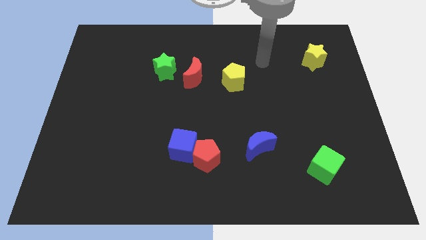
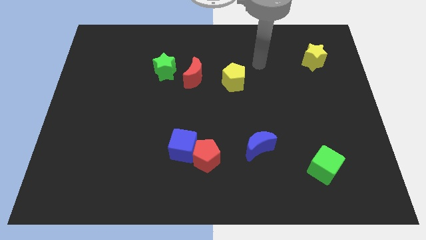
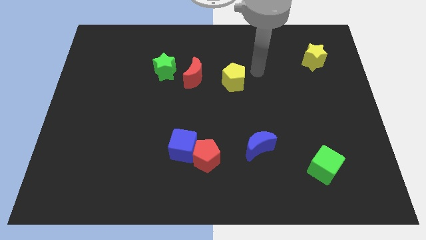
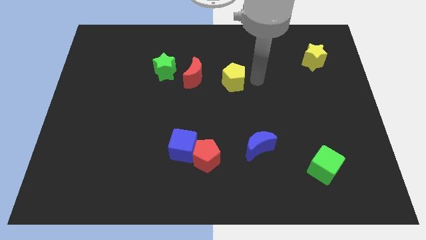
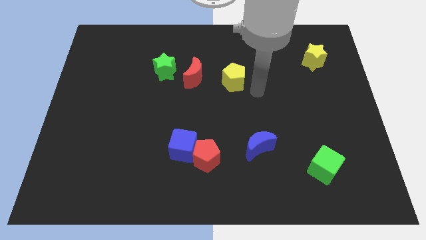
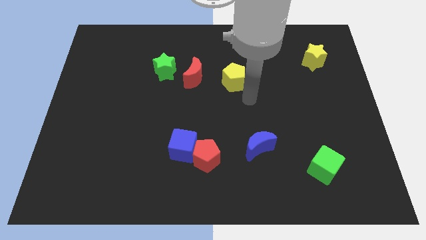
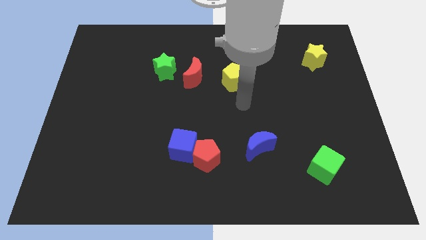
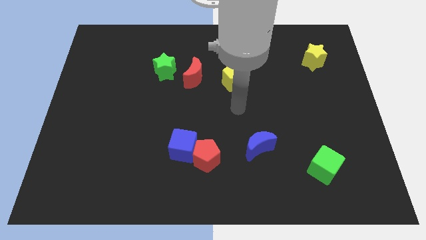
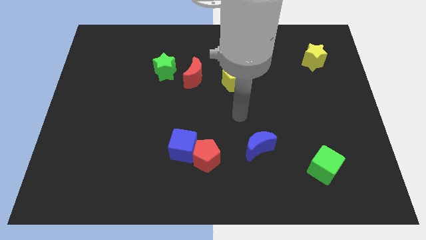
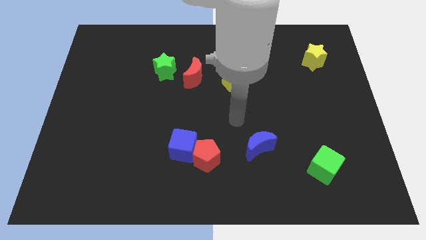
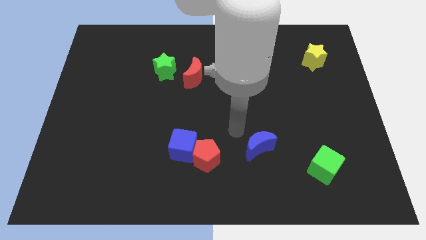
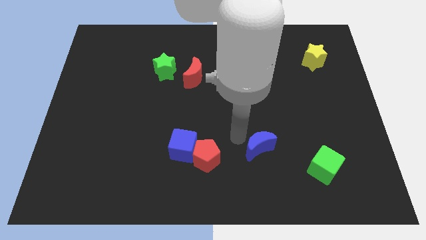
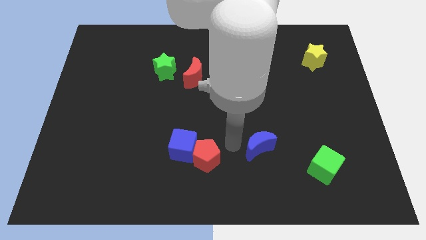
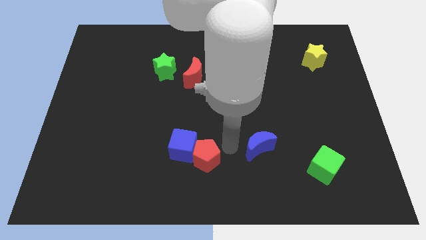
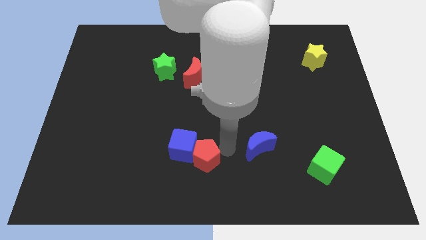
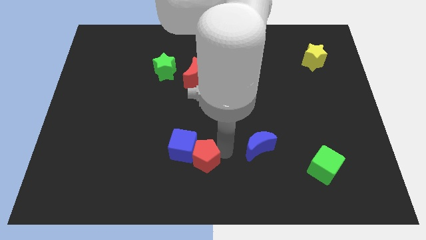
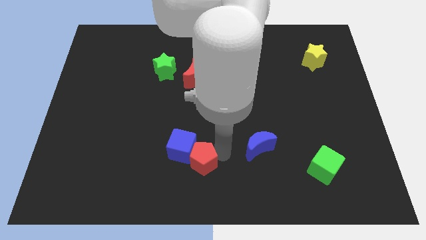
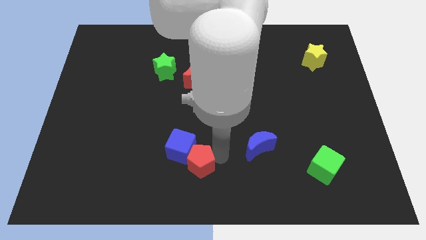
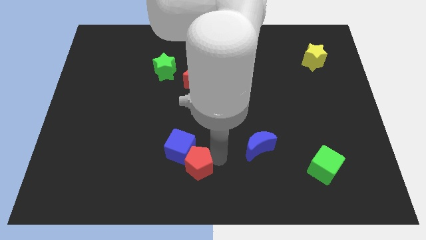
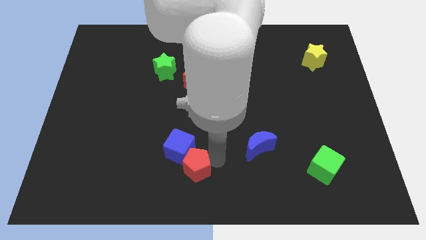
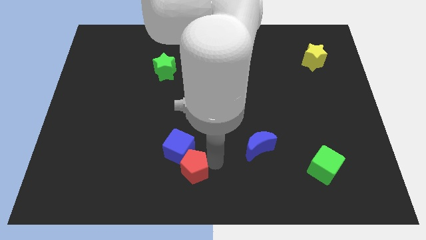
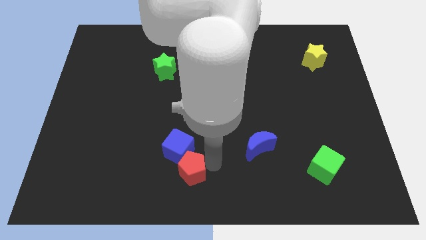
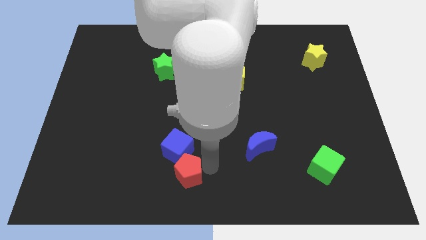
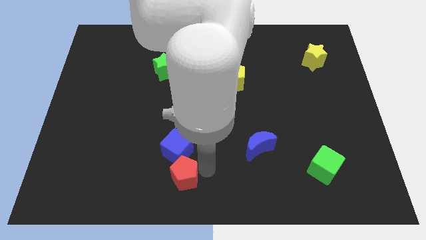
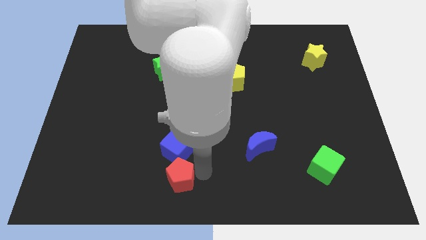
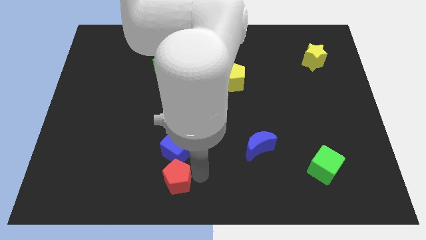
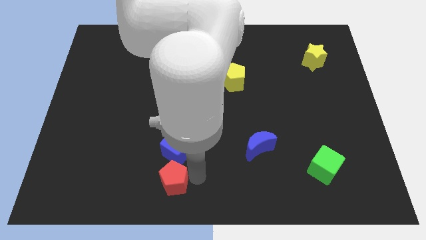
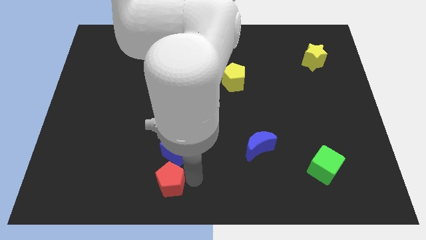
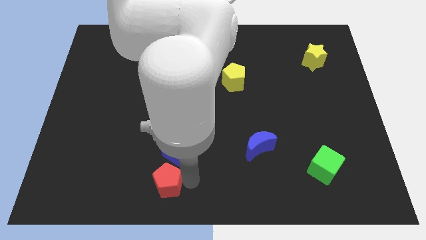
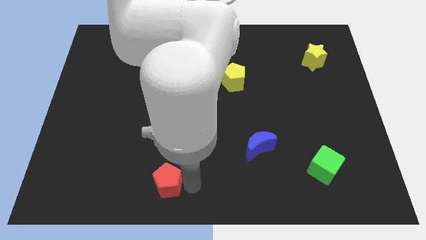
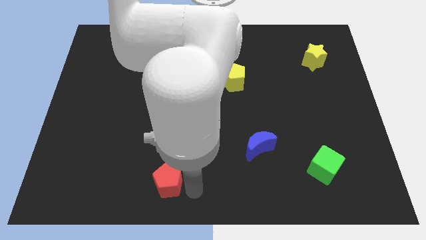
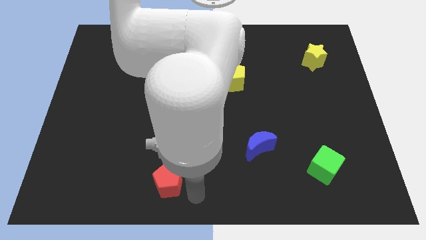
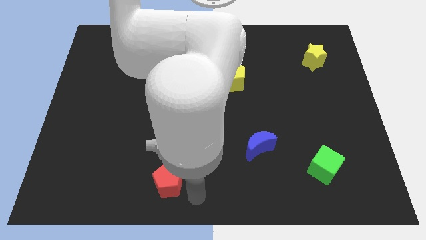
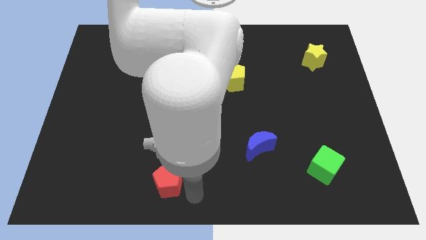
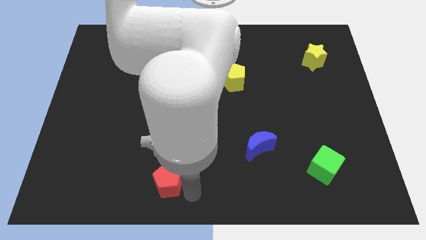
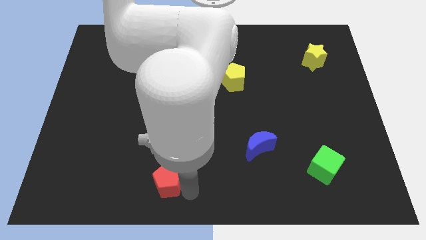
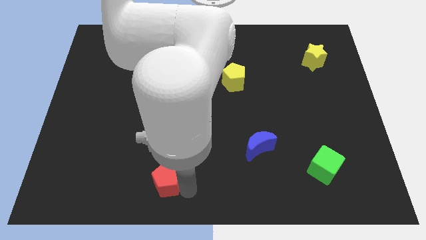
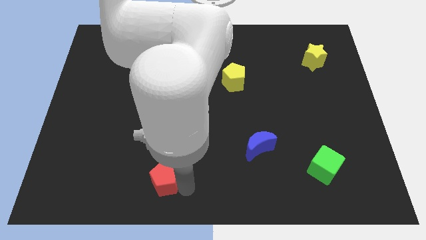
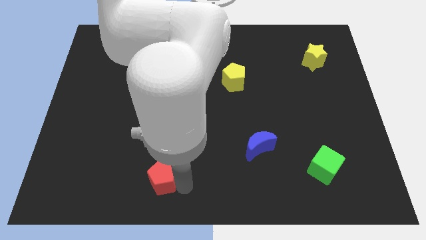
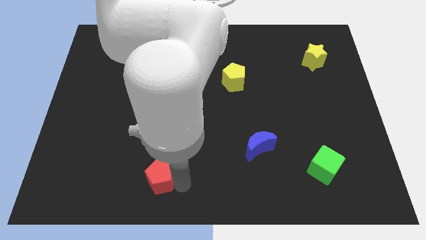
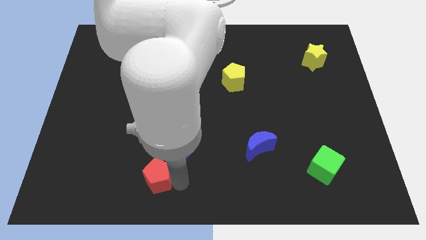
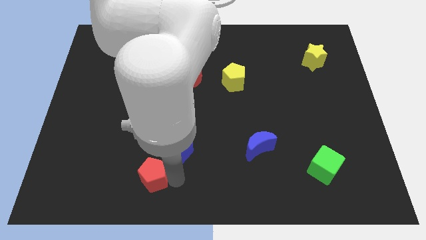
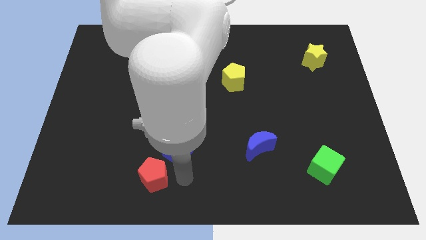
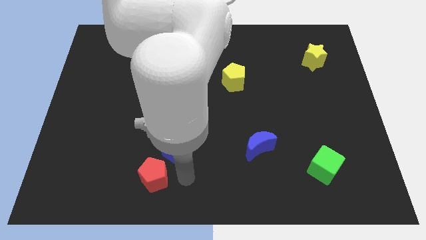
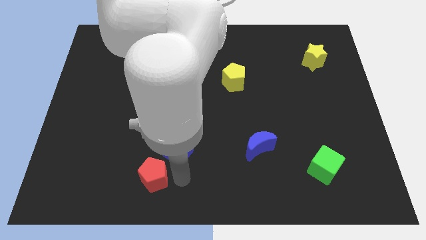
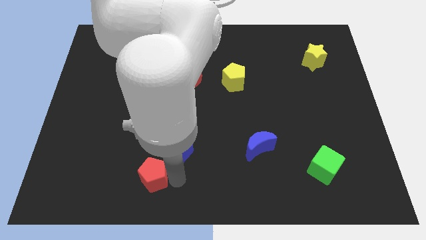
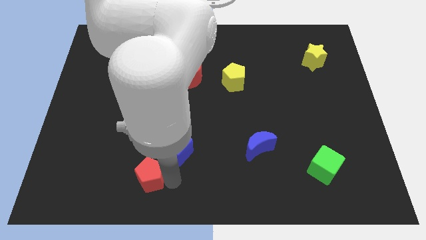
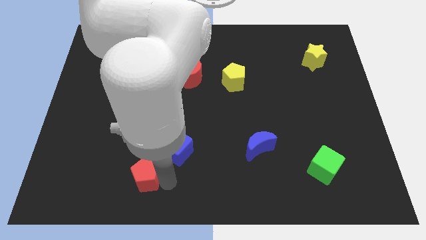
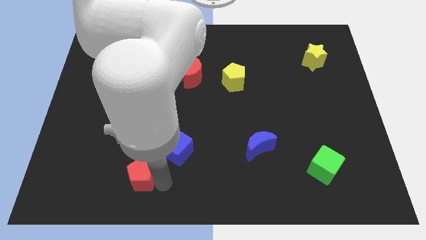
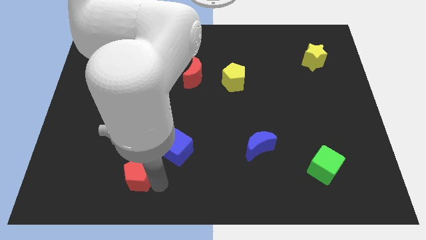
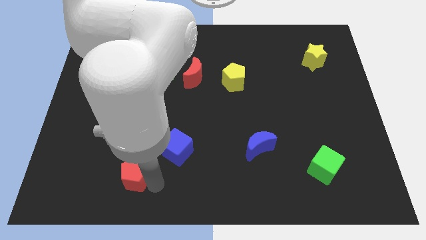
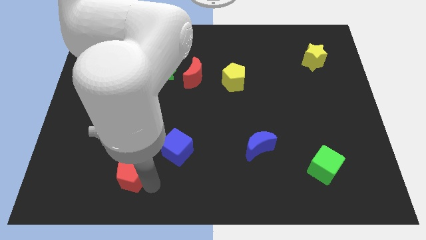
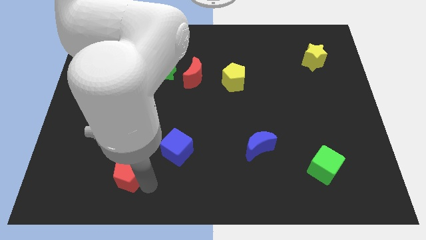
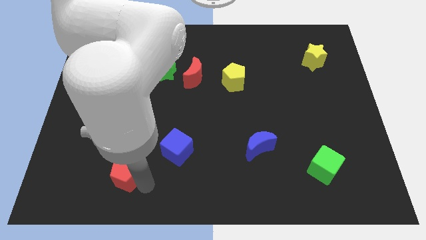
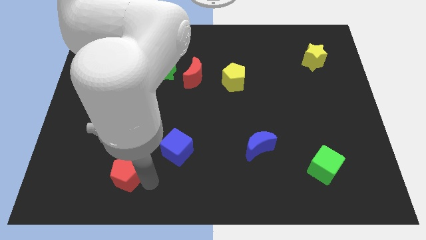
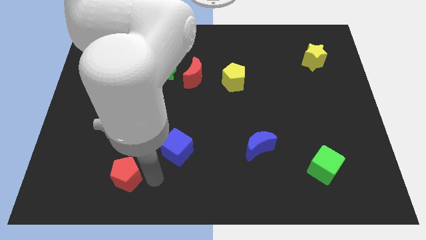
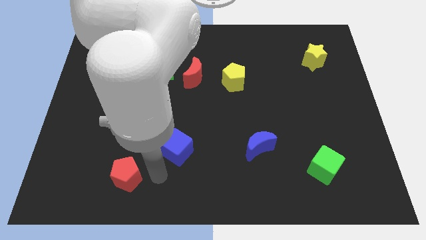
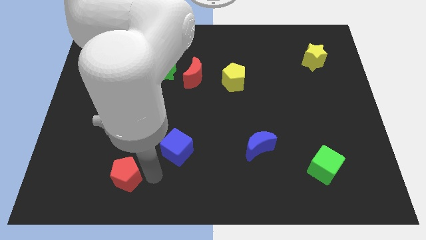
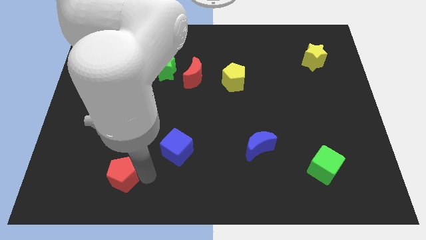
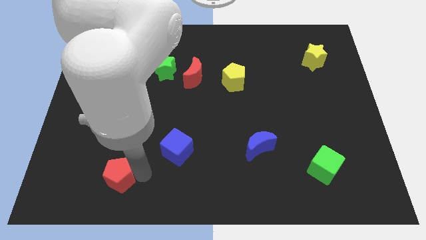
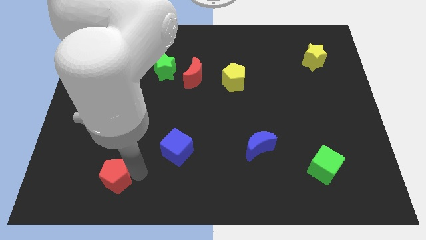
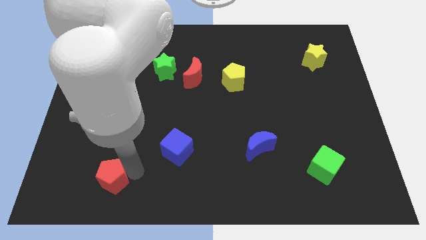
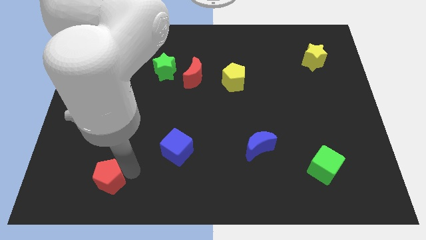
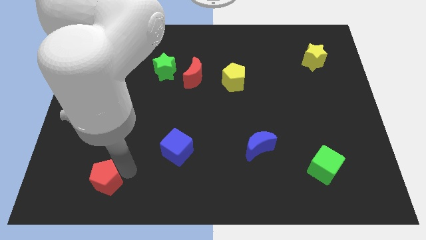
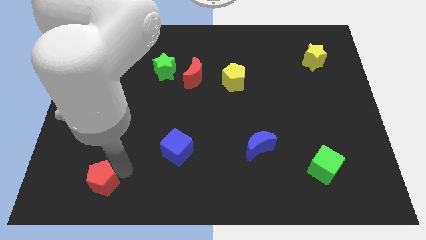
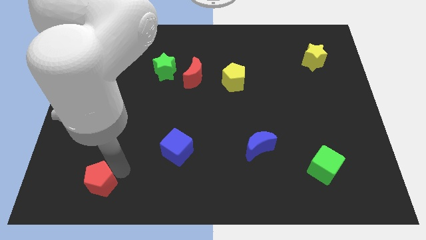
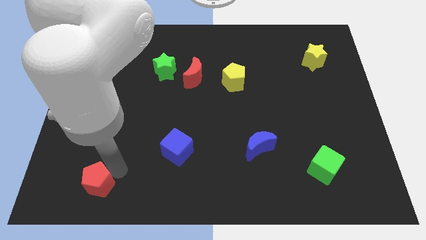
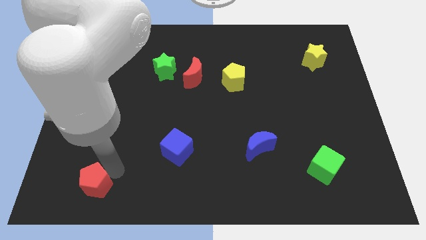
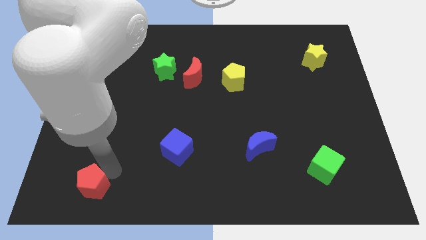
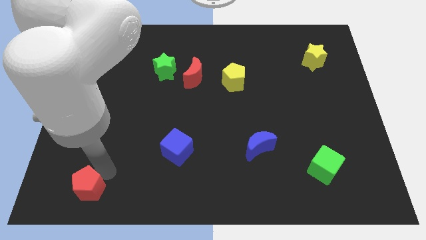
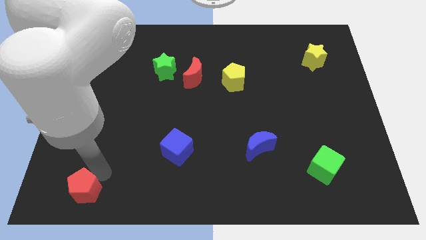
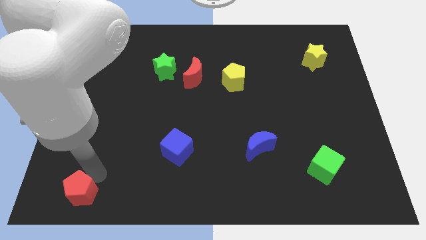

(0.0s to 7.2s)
put the red pentagon to the bottom left corner
